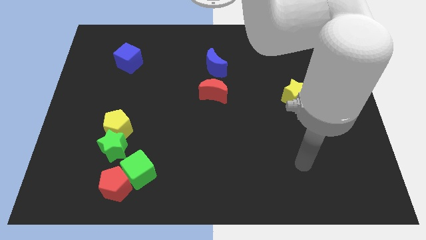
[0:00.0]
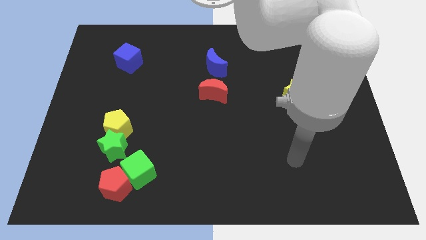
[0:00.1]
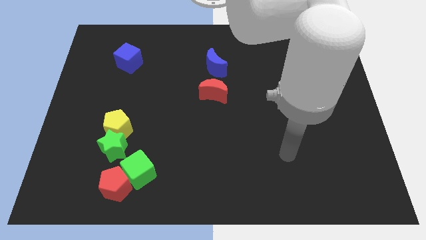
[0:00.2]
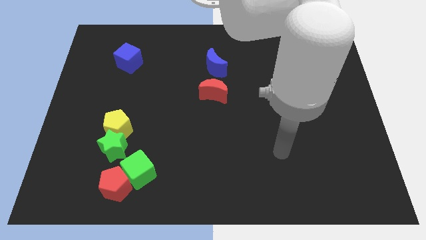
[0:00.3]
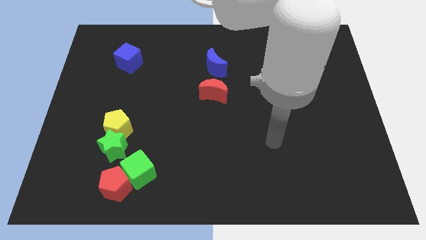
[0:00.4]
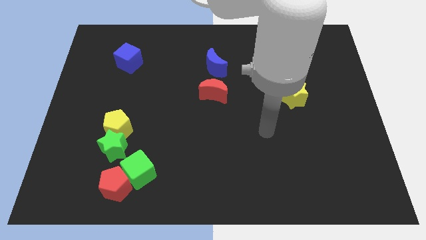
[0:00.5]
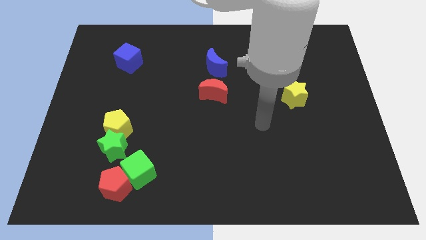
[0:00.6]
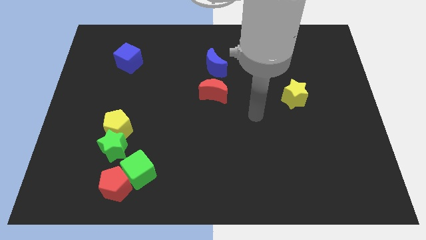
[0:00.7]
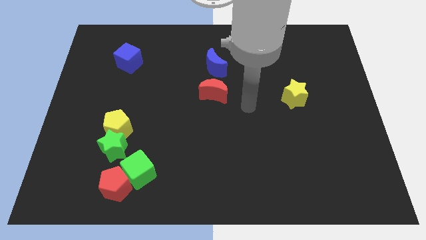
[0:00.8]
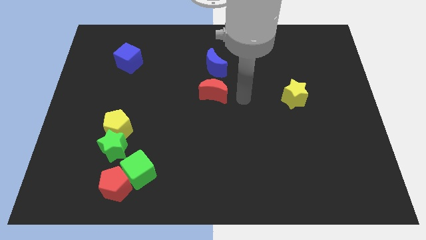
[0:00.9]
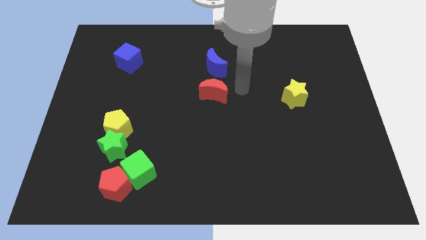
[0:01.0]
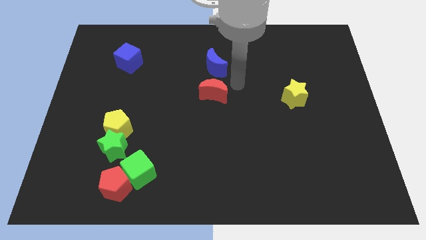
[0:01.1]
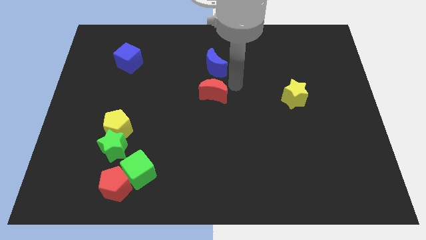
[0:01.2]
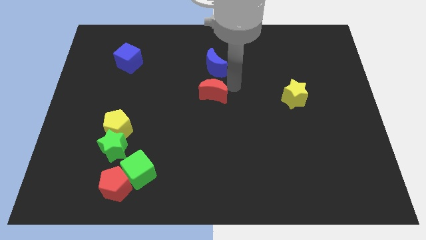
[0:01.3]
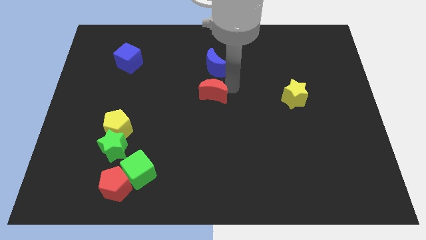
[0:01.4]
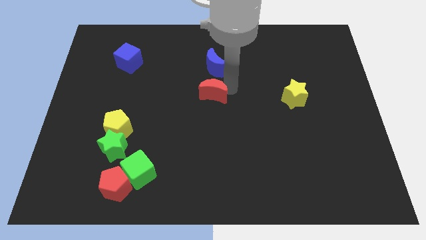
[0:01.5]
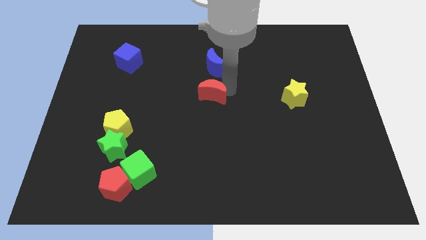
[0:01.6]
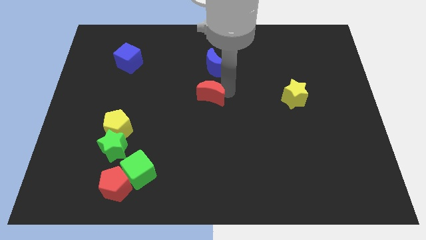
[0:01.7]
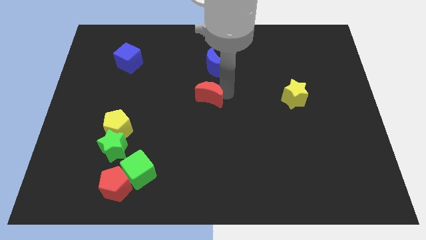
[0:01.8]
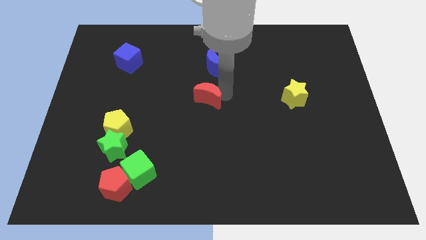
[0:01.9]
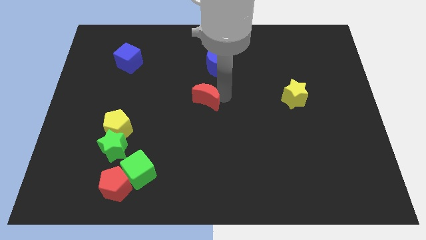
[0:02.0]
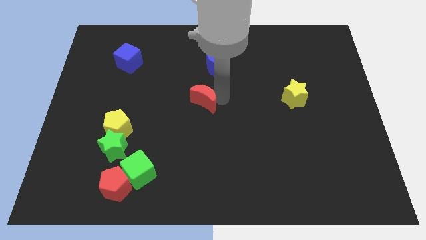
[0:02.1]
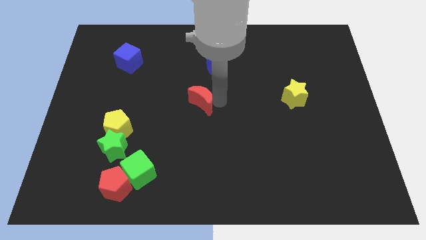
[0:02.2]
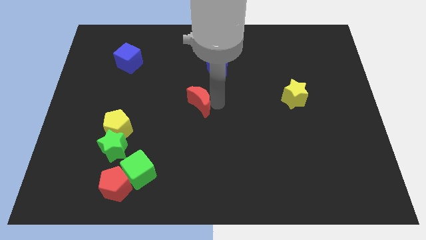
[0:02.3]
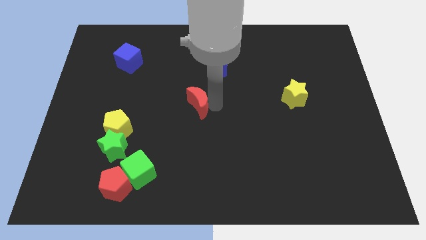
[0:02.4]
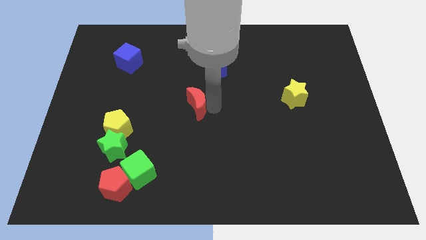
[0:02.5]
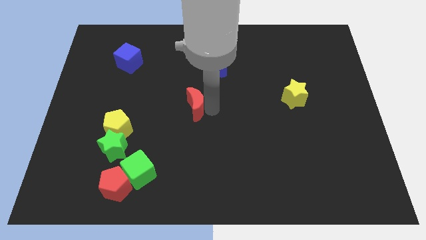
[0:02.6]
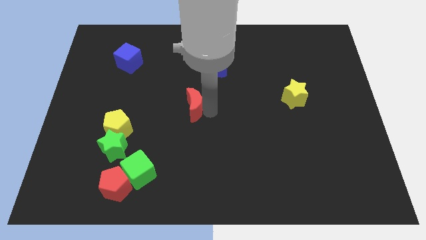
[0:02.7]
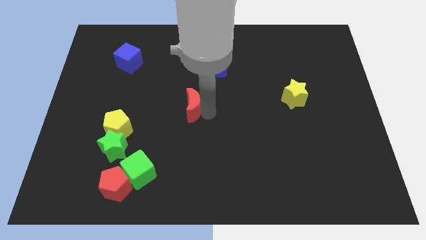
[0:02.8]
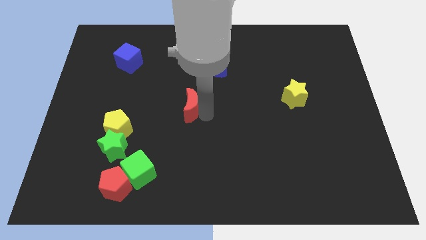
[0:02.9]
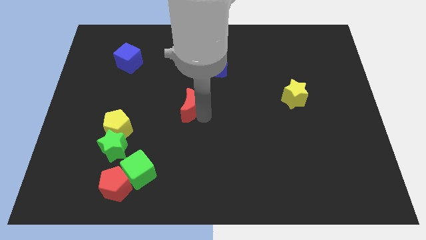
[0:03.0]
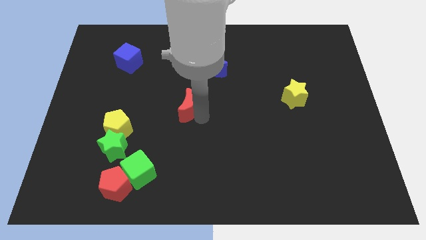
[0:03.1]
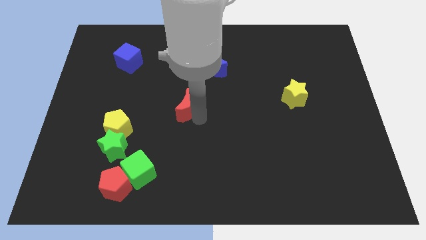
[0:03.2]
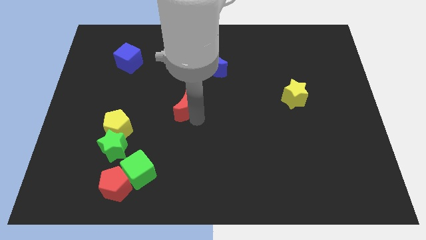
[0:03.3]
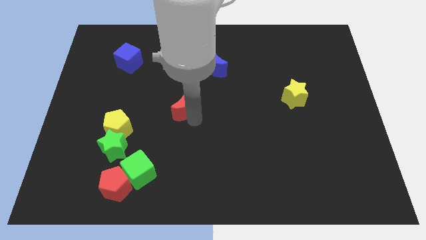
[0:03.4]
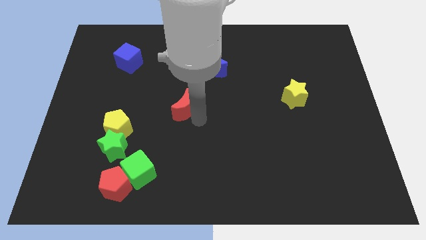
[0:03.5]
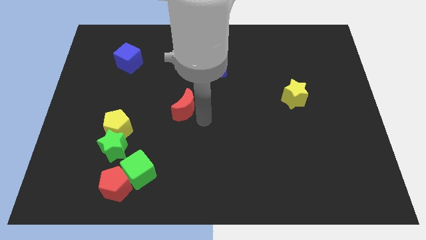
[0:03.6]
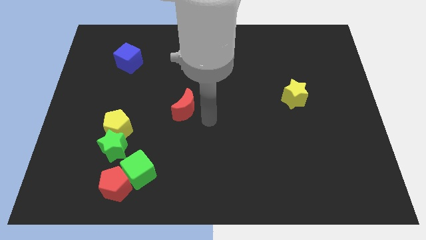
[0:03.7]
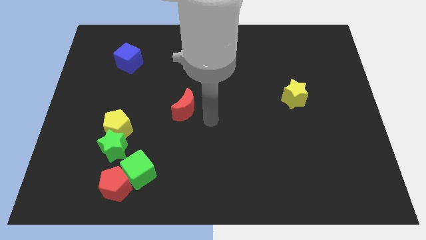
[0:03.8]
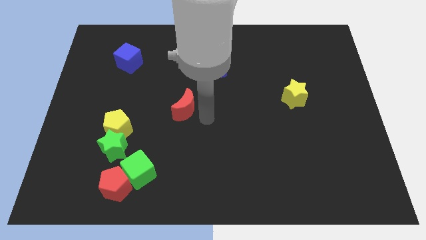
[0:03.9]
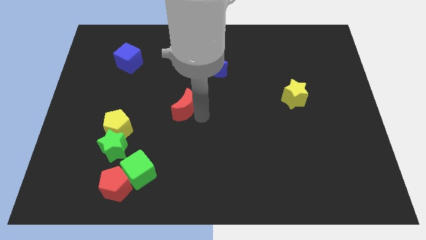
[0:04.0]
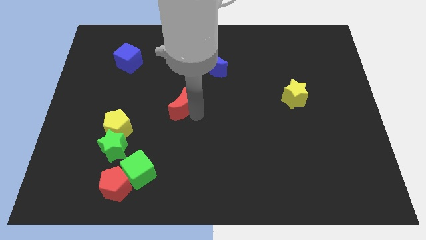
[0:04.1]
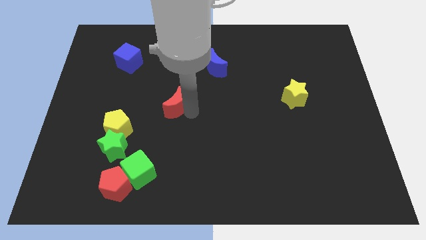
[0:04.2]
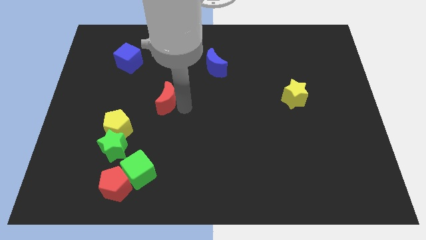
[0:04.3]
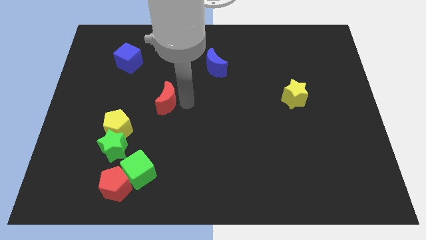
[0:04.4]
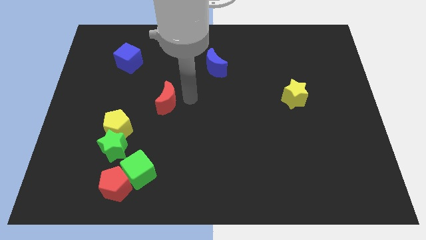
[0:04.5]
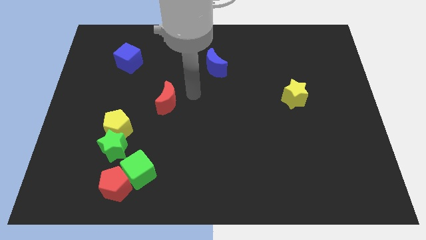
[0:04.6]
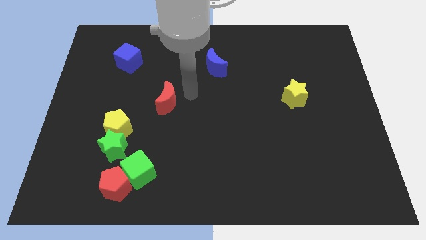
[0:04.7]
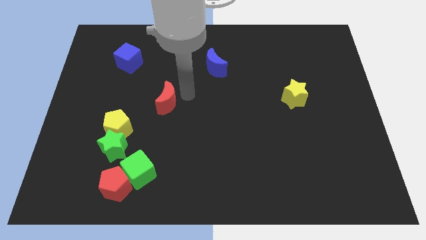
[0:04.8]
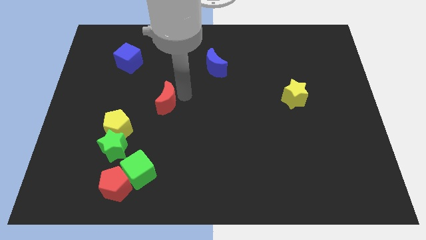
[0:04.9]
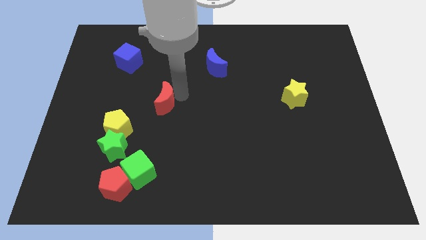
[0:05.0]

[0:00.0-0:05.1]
push the red moon diagonally up and to the right of the yellow pentagon

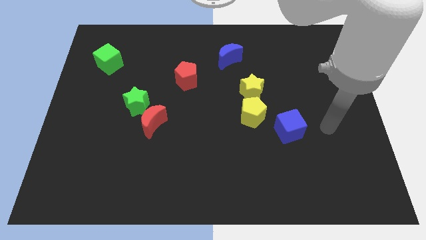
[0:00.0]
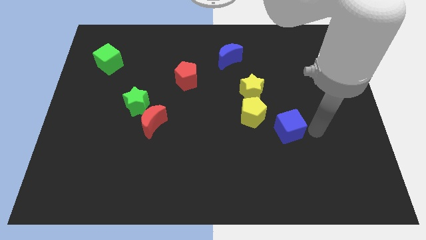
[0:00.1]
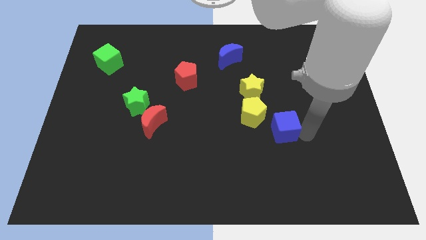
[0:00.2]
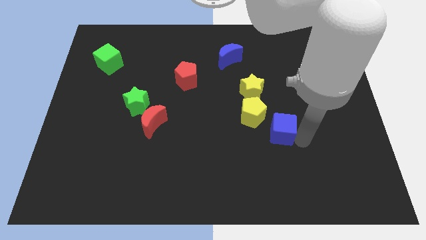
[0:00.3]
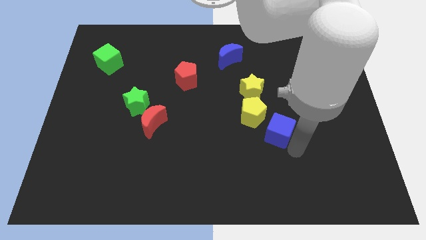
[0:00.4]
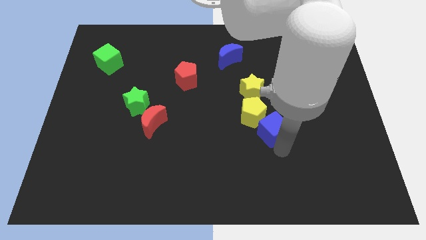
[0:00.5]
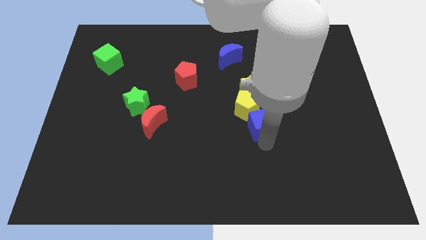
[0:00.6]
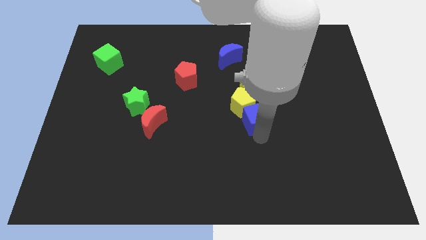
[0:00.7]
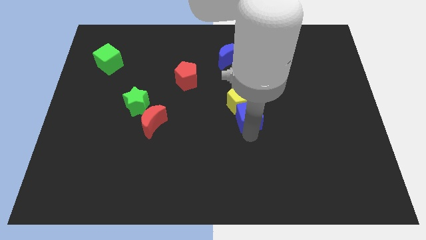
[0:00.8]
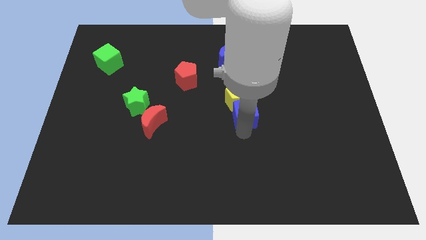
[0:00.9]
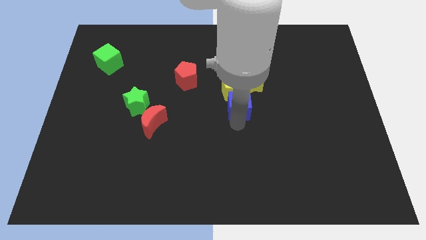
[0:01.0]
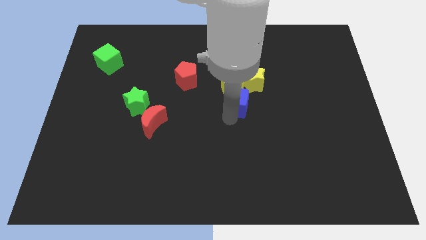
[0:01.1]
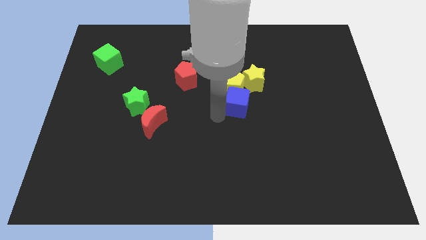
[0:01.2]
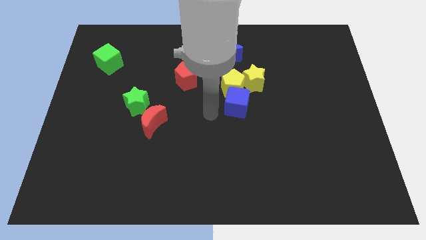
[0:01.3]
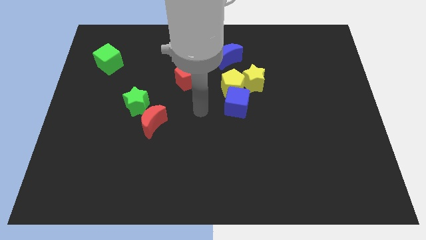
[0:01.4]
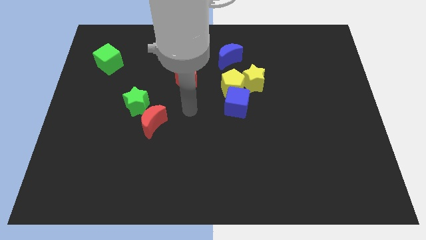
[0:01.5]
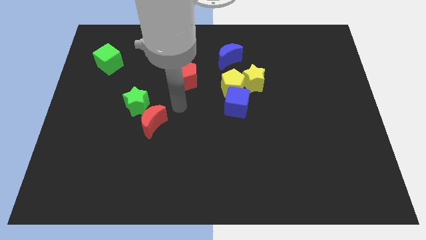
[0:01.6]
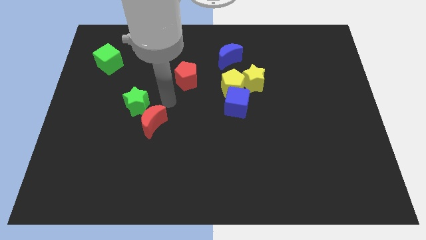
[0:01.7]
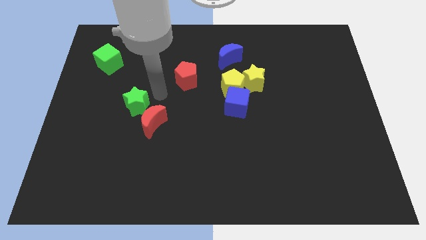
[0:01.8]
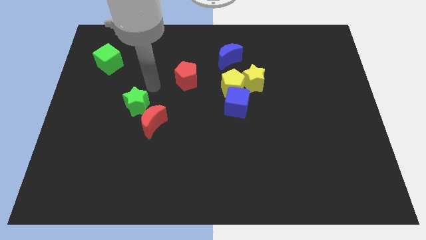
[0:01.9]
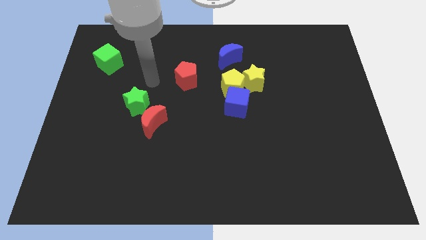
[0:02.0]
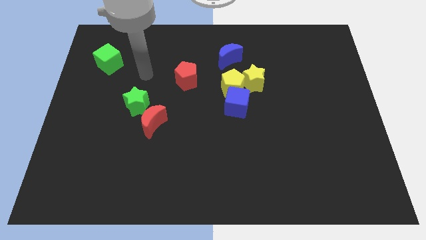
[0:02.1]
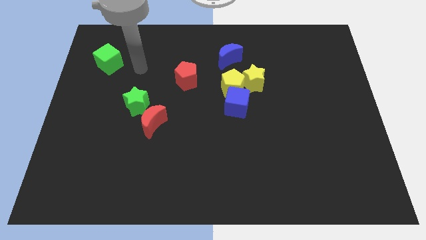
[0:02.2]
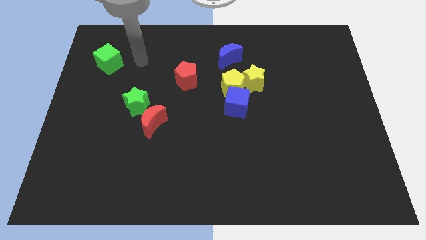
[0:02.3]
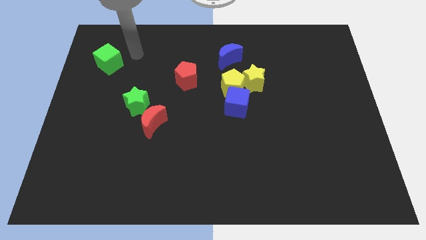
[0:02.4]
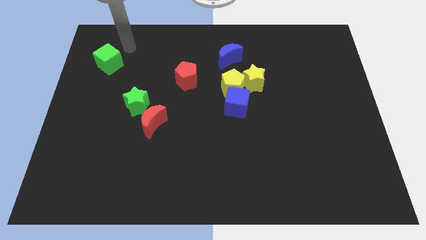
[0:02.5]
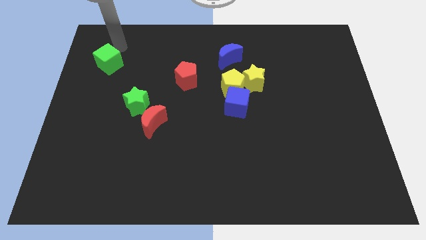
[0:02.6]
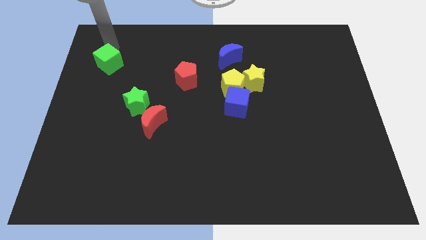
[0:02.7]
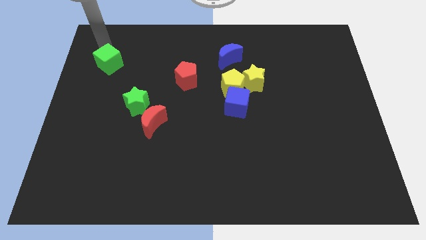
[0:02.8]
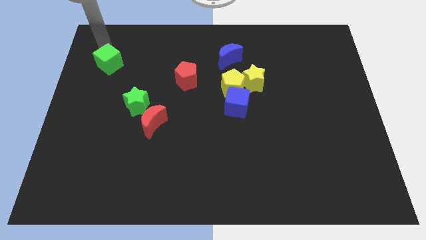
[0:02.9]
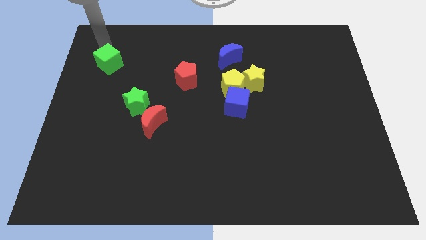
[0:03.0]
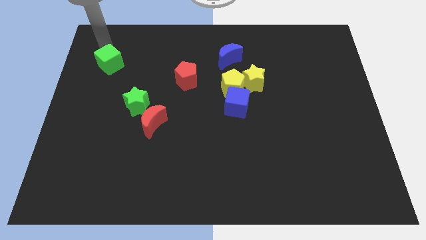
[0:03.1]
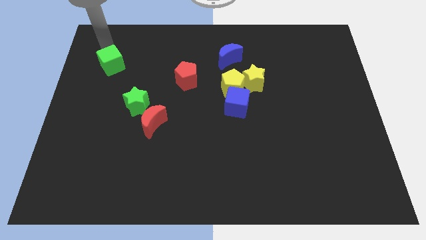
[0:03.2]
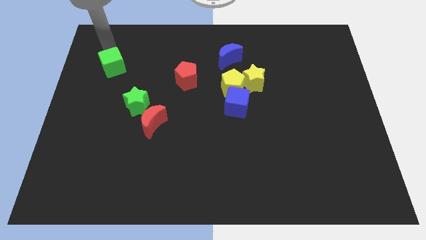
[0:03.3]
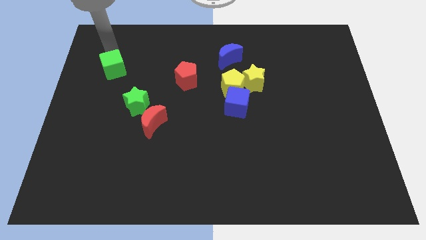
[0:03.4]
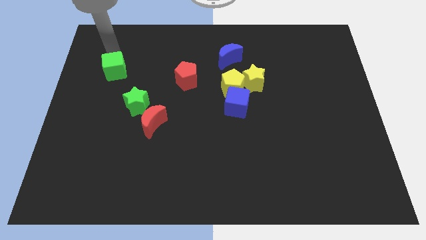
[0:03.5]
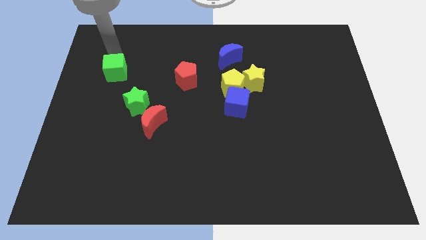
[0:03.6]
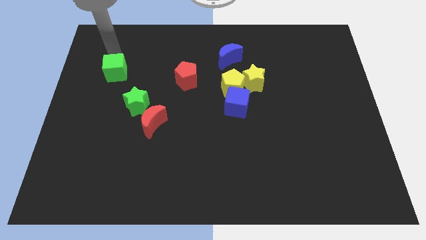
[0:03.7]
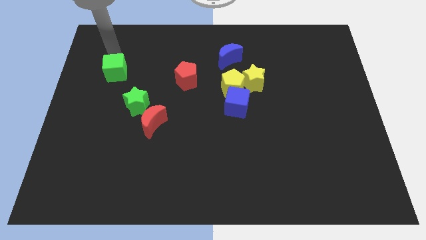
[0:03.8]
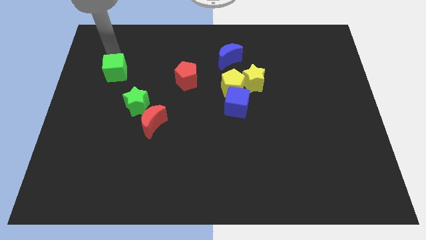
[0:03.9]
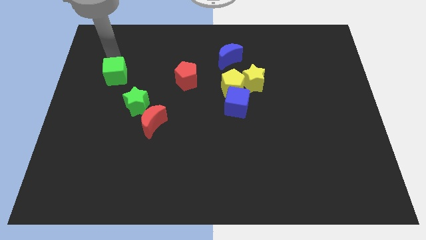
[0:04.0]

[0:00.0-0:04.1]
move the green cube to the top left of the green star
